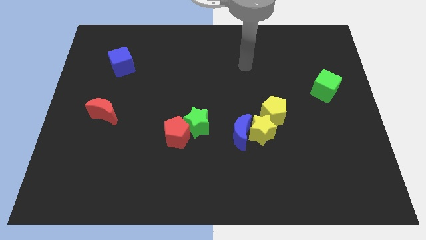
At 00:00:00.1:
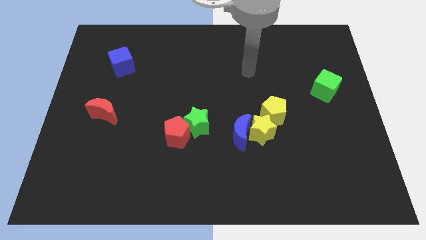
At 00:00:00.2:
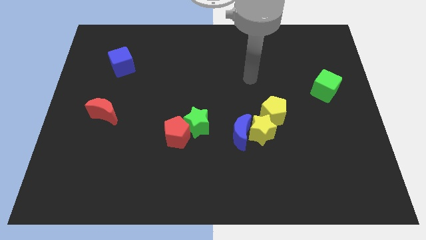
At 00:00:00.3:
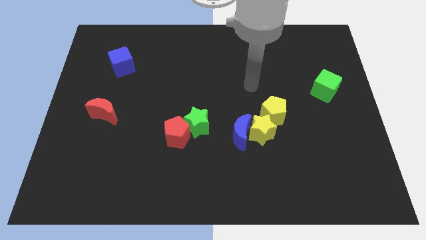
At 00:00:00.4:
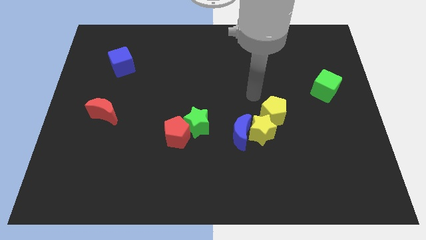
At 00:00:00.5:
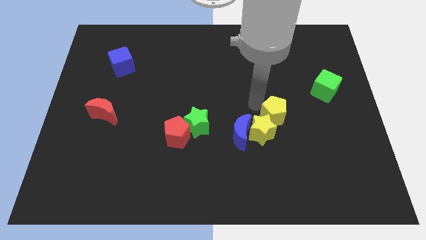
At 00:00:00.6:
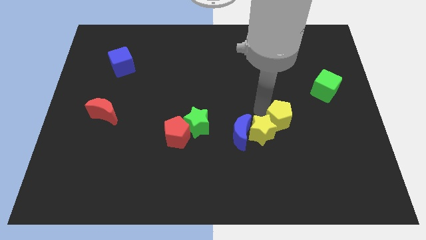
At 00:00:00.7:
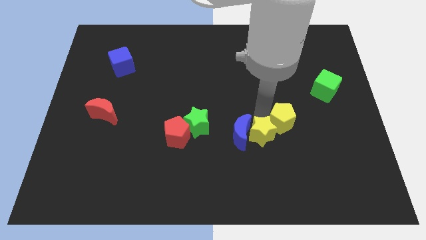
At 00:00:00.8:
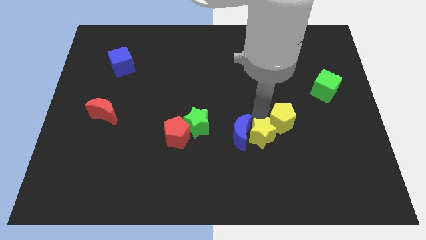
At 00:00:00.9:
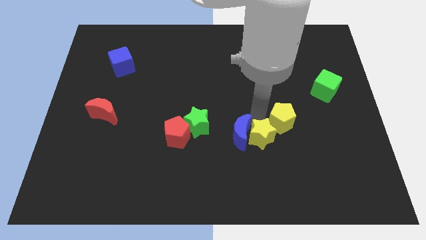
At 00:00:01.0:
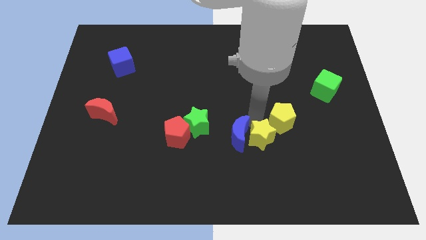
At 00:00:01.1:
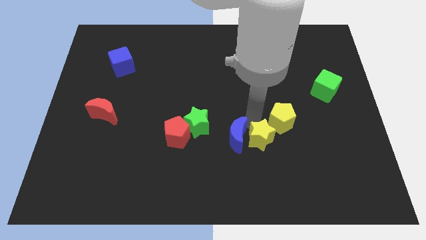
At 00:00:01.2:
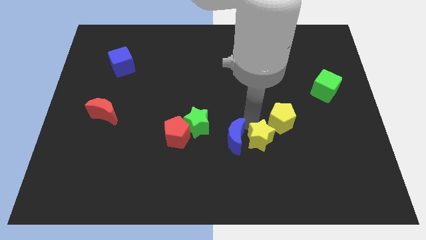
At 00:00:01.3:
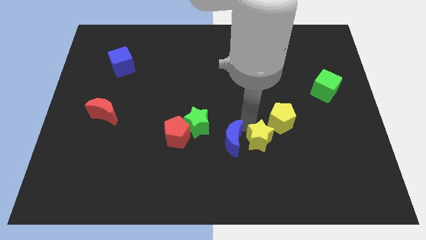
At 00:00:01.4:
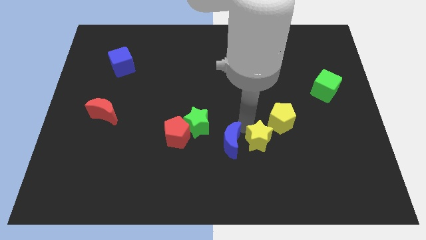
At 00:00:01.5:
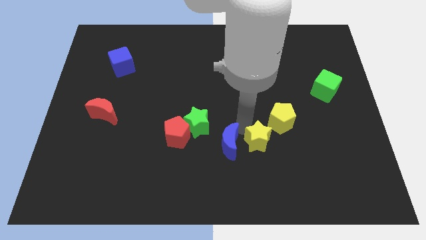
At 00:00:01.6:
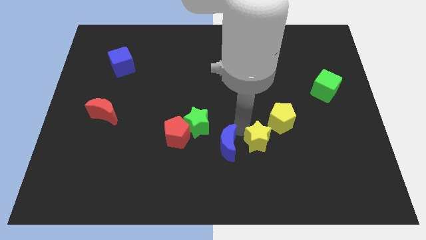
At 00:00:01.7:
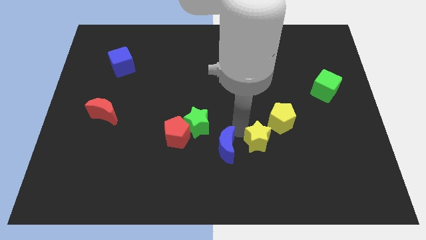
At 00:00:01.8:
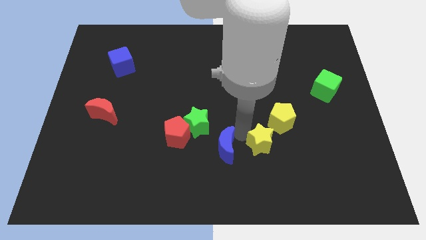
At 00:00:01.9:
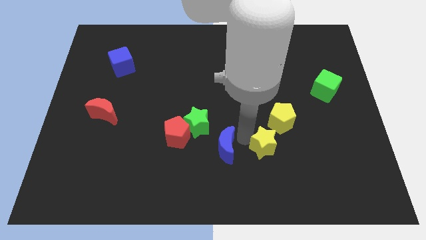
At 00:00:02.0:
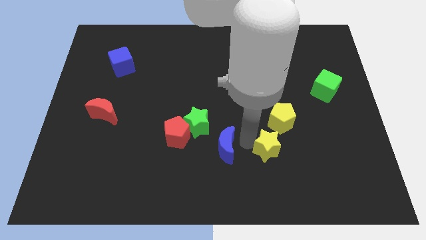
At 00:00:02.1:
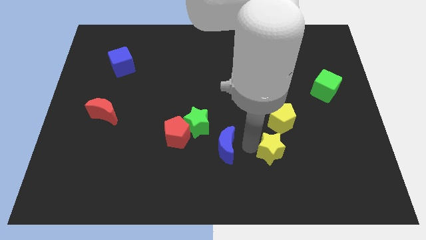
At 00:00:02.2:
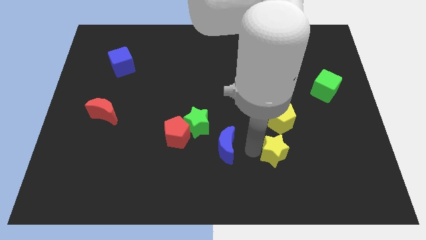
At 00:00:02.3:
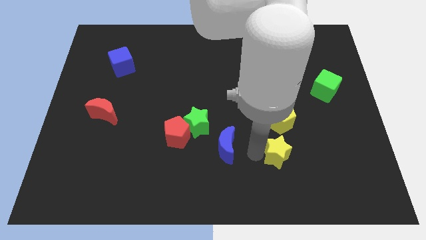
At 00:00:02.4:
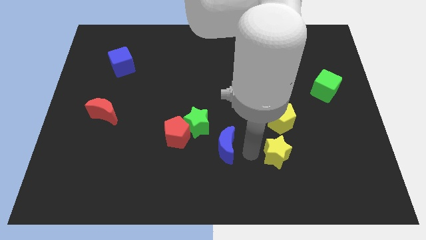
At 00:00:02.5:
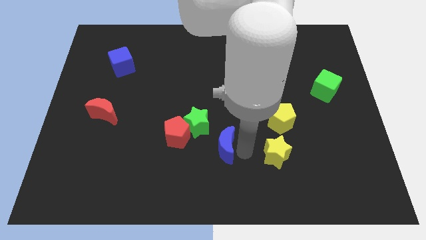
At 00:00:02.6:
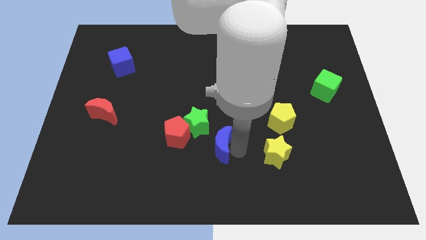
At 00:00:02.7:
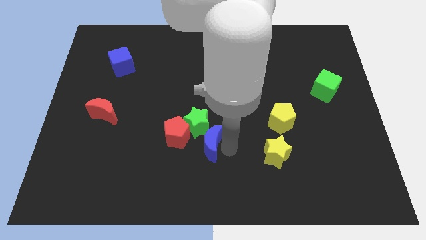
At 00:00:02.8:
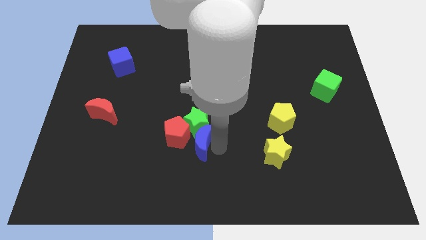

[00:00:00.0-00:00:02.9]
put the blue moon next to the red pentagon

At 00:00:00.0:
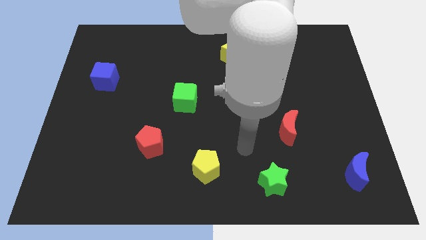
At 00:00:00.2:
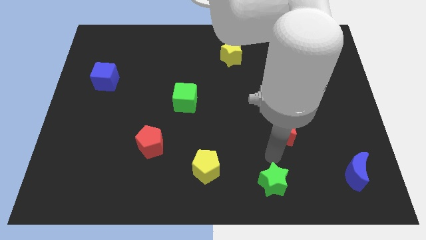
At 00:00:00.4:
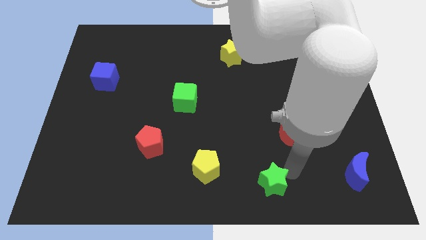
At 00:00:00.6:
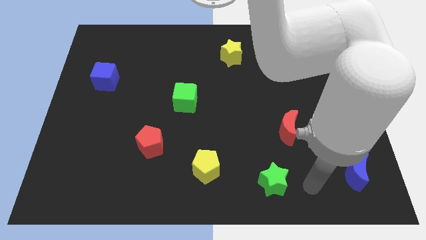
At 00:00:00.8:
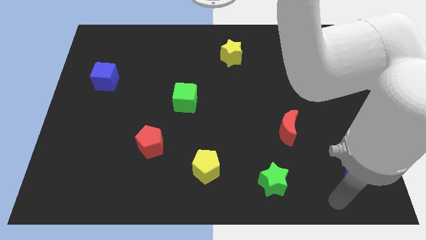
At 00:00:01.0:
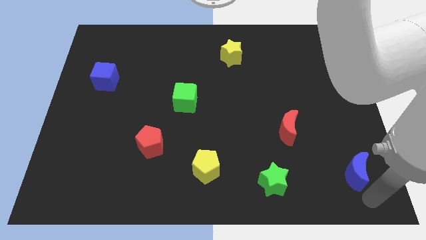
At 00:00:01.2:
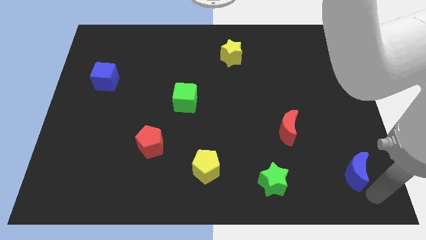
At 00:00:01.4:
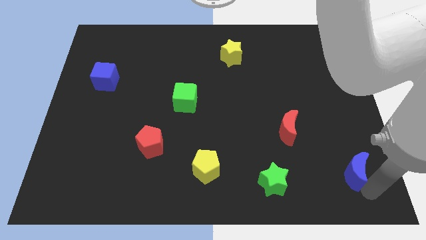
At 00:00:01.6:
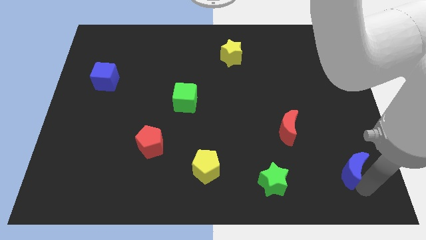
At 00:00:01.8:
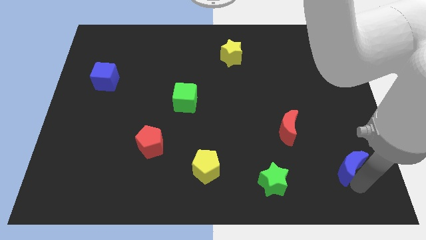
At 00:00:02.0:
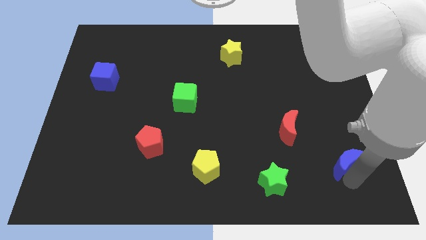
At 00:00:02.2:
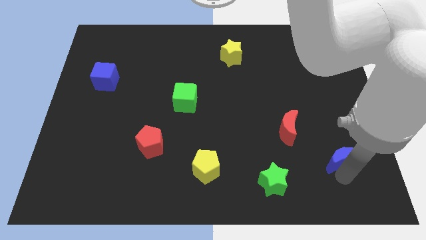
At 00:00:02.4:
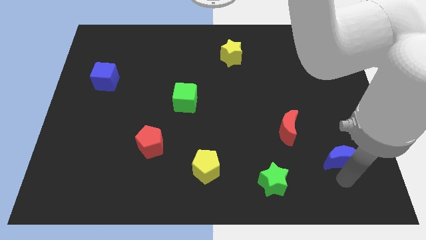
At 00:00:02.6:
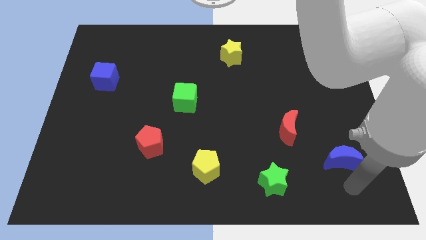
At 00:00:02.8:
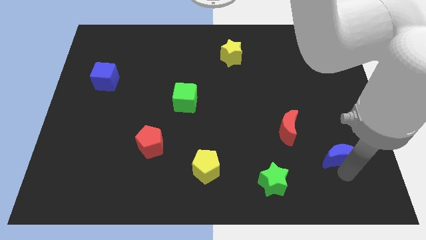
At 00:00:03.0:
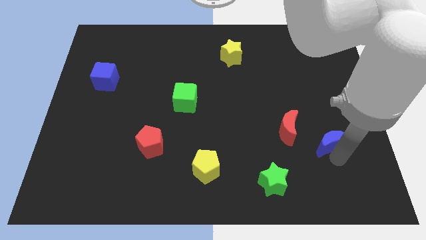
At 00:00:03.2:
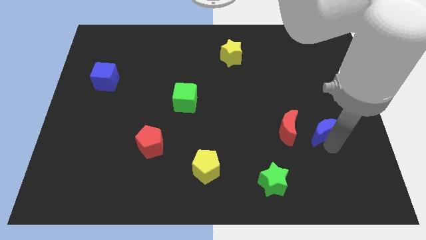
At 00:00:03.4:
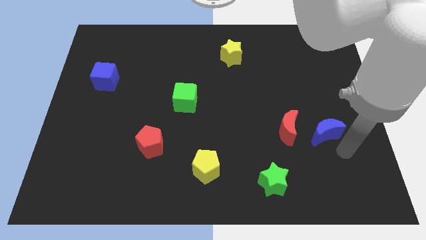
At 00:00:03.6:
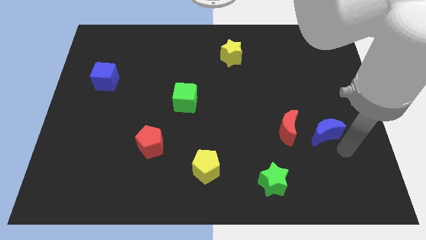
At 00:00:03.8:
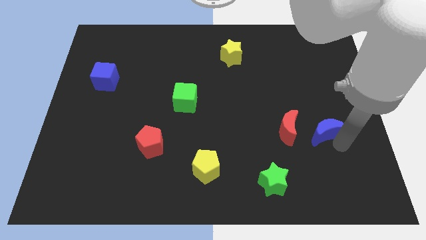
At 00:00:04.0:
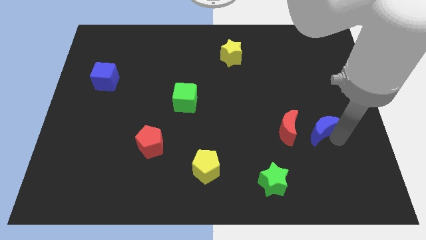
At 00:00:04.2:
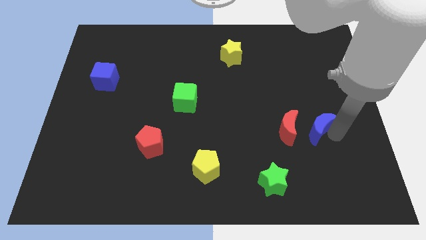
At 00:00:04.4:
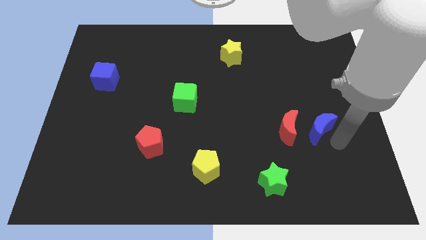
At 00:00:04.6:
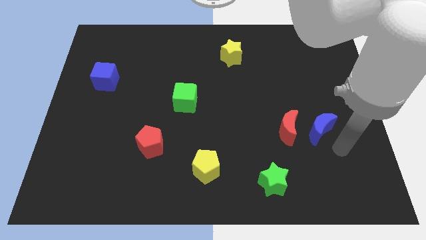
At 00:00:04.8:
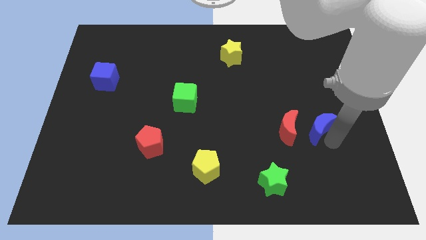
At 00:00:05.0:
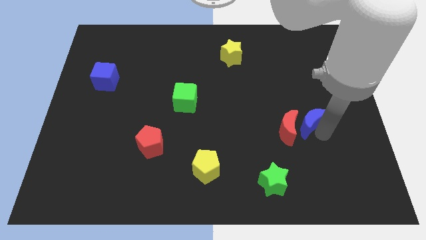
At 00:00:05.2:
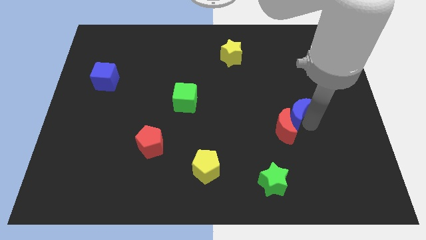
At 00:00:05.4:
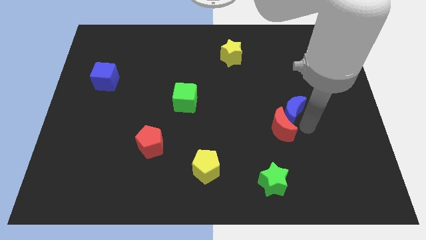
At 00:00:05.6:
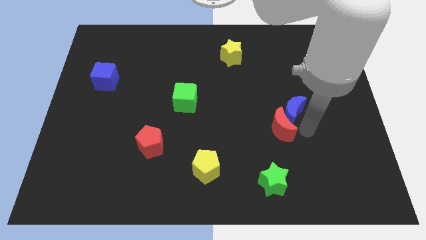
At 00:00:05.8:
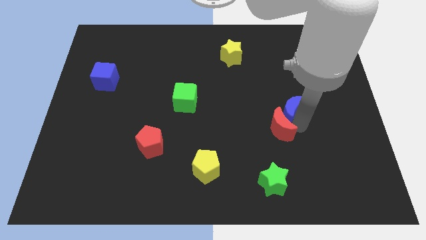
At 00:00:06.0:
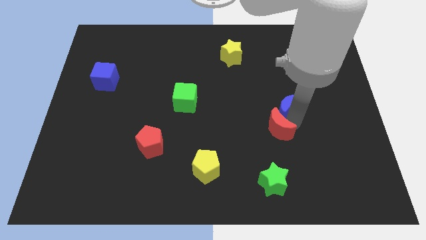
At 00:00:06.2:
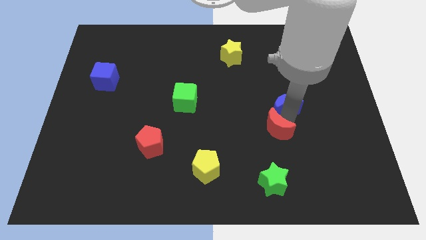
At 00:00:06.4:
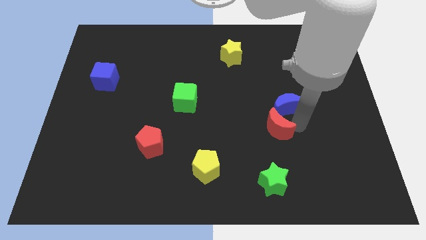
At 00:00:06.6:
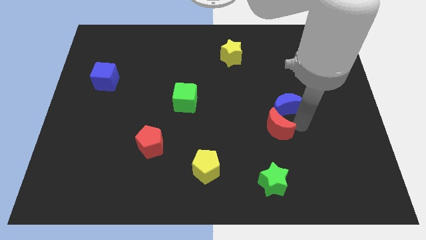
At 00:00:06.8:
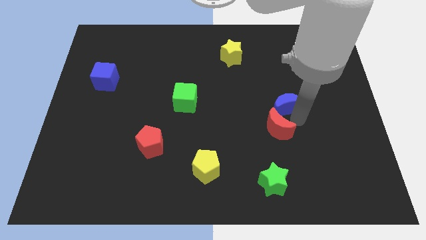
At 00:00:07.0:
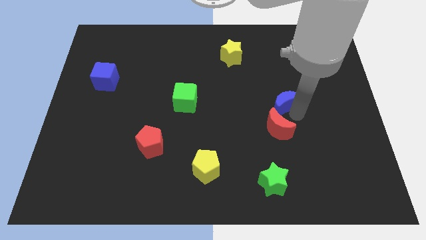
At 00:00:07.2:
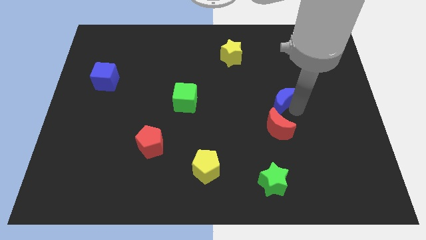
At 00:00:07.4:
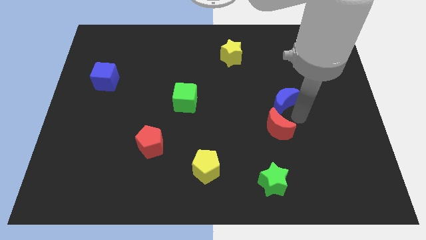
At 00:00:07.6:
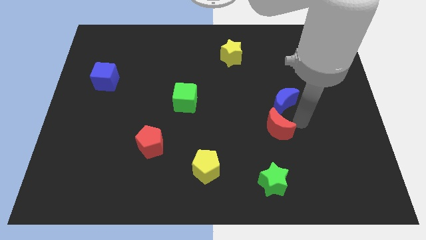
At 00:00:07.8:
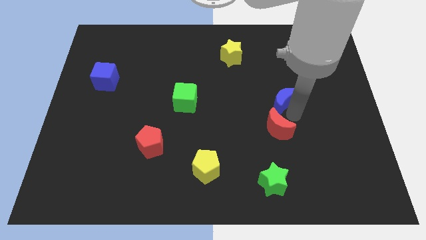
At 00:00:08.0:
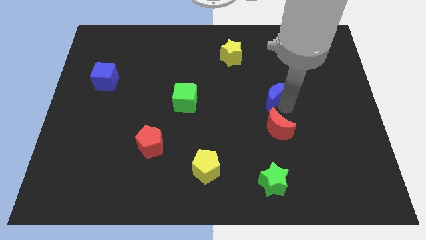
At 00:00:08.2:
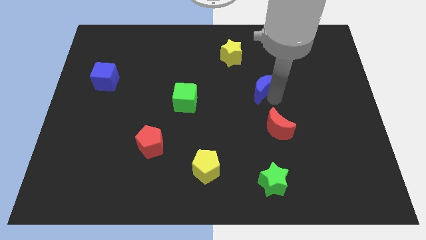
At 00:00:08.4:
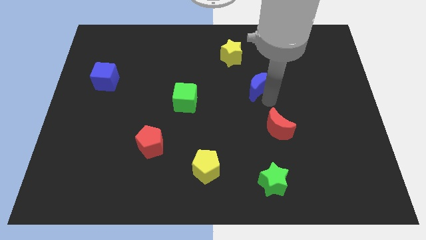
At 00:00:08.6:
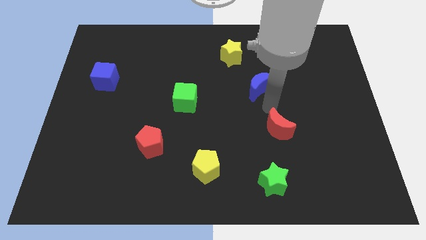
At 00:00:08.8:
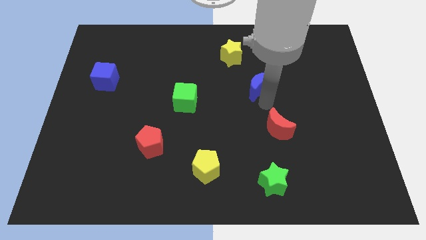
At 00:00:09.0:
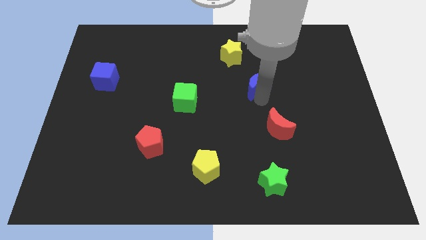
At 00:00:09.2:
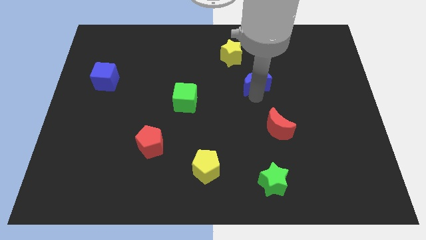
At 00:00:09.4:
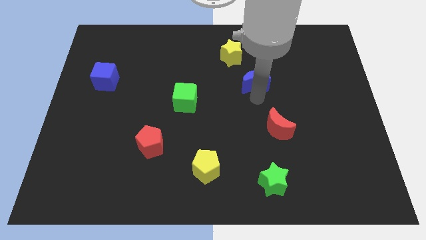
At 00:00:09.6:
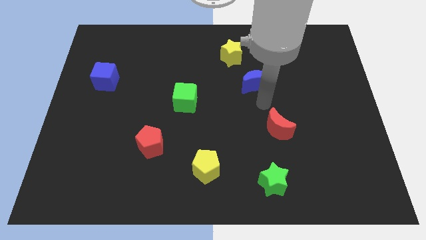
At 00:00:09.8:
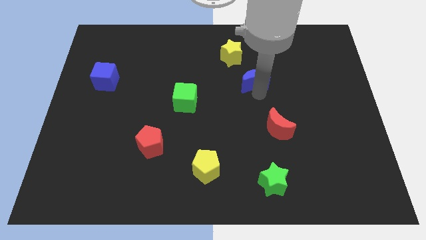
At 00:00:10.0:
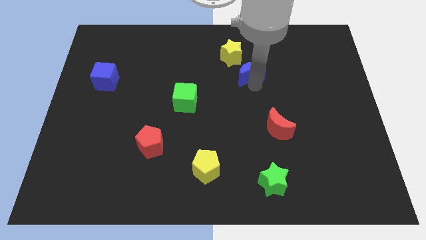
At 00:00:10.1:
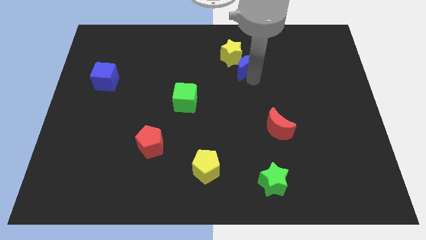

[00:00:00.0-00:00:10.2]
slide the blue moon next to the yellow star
